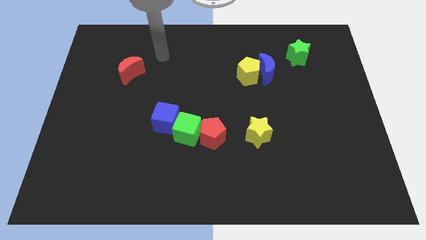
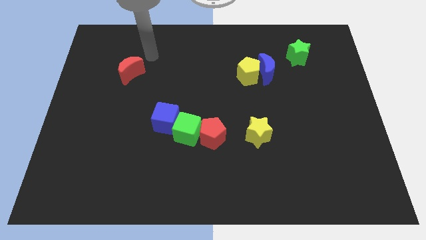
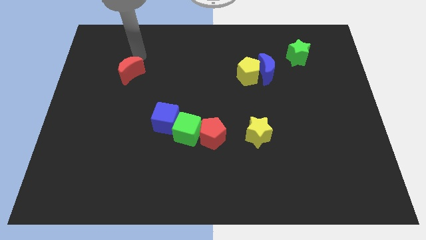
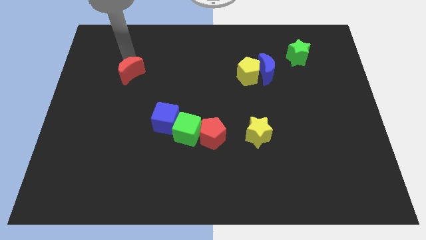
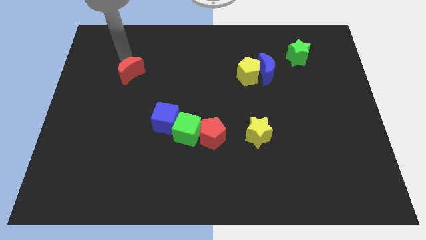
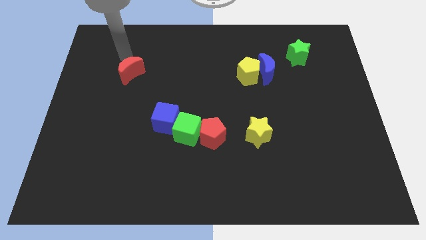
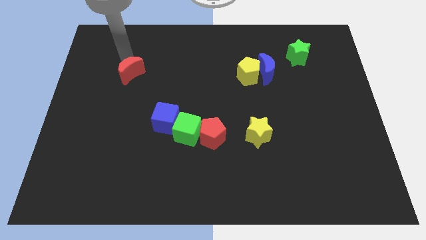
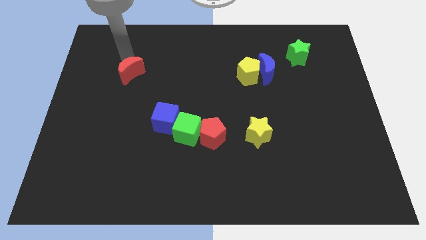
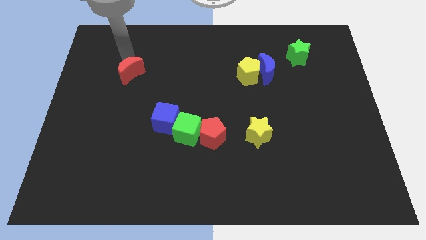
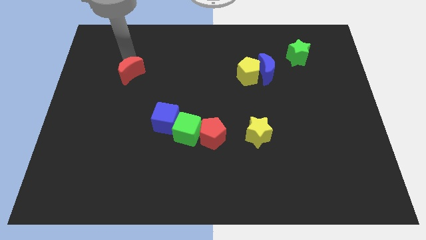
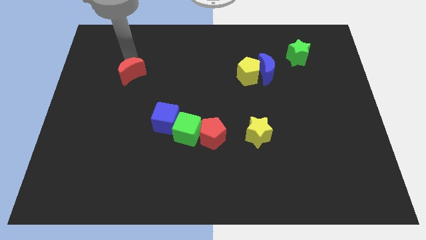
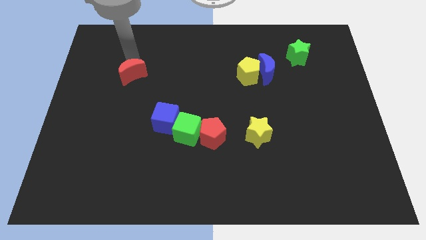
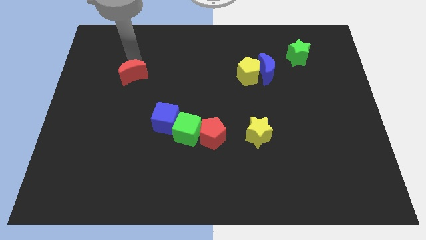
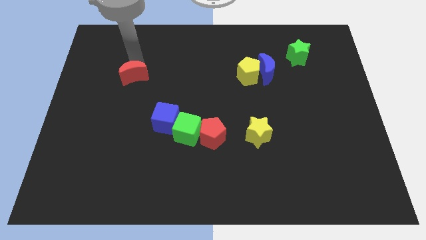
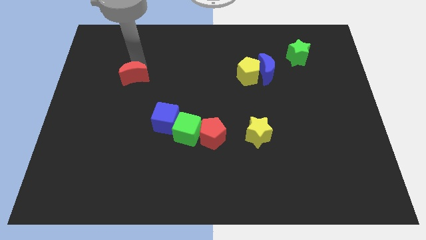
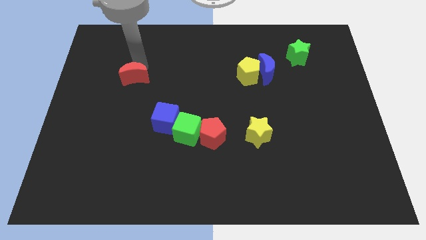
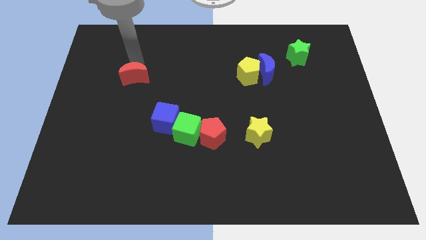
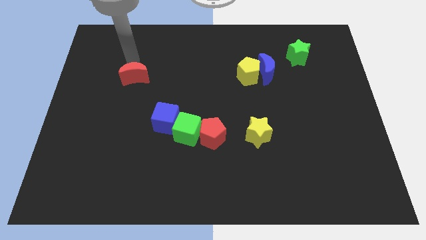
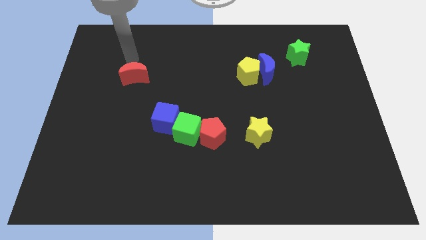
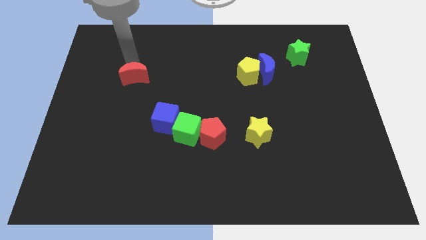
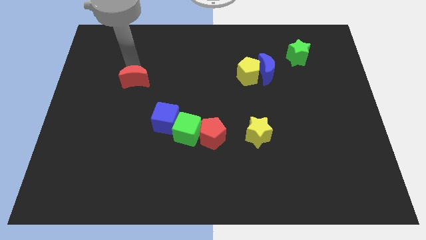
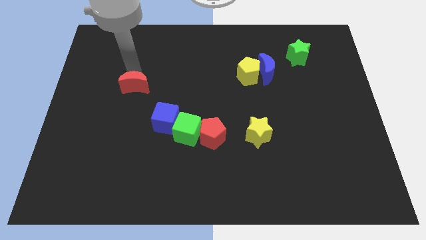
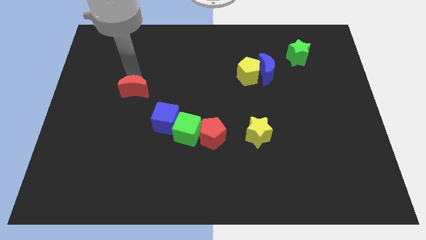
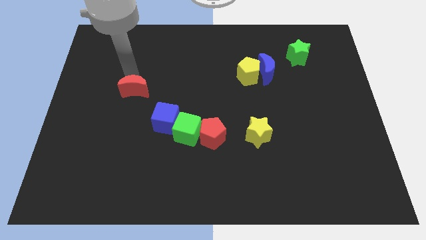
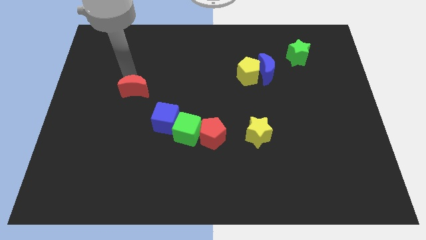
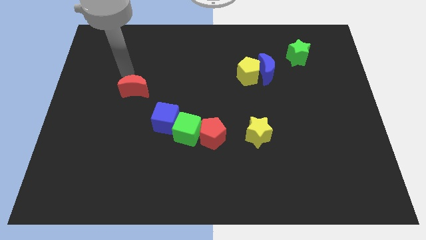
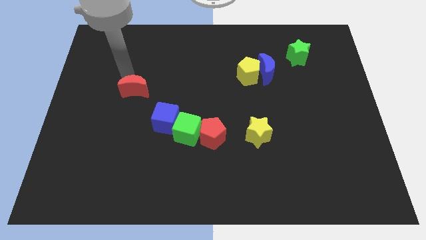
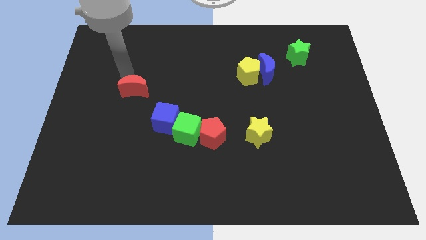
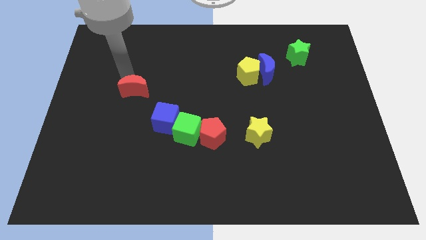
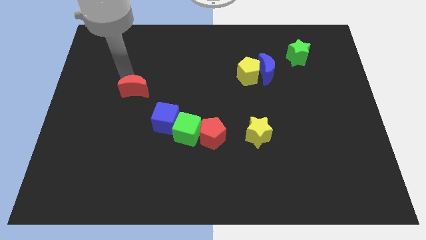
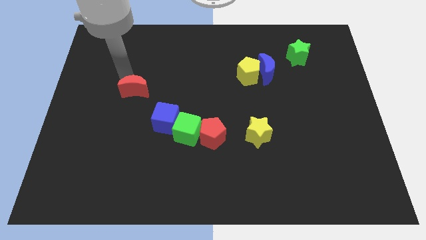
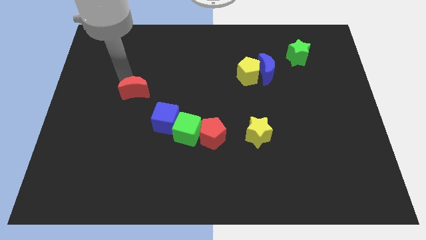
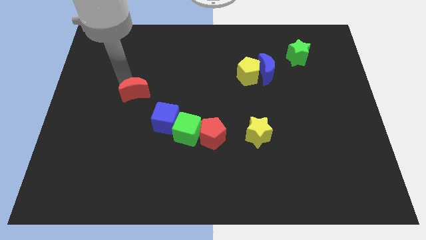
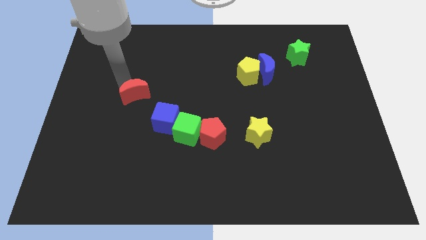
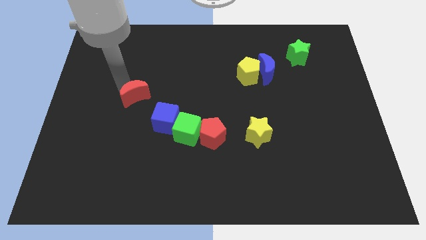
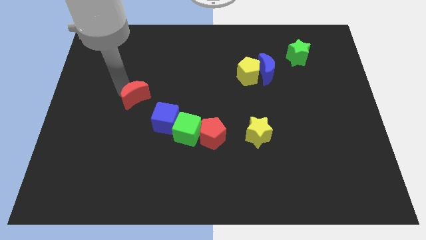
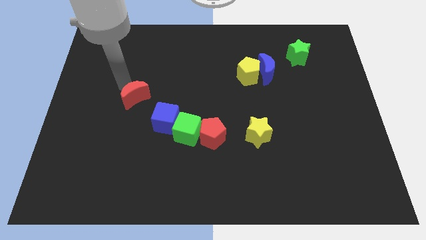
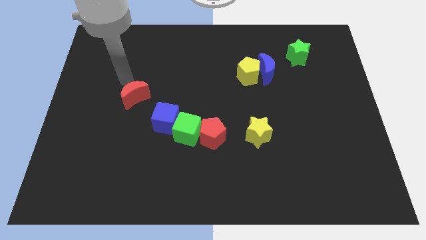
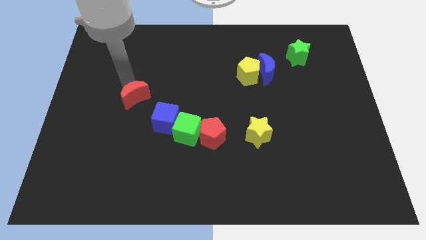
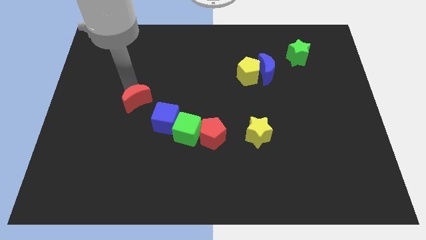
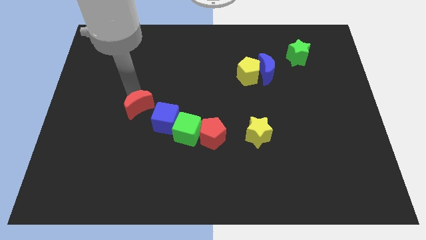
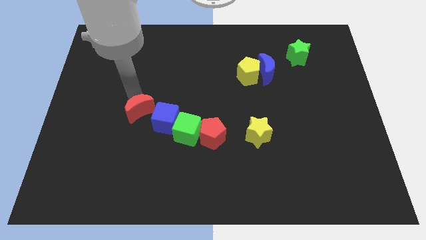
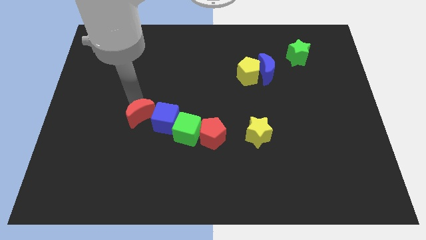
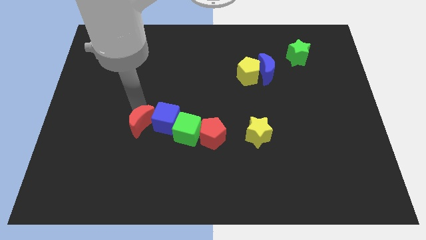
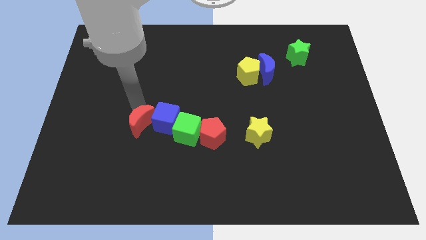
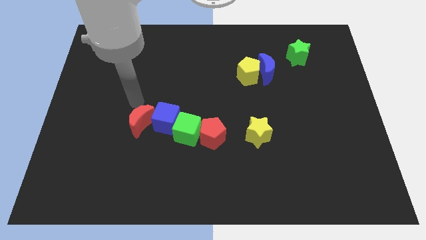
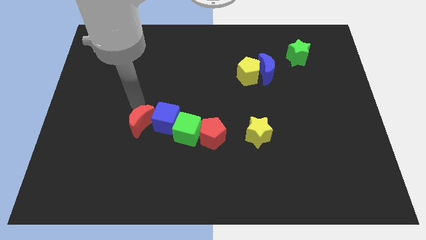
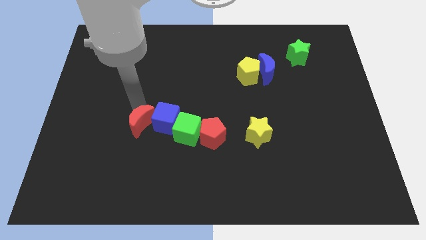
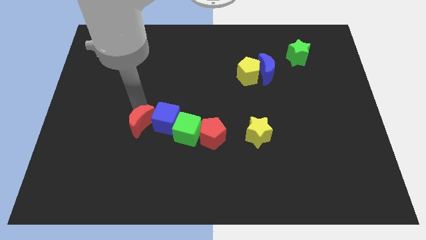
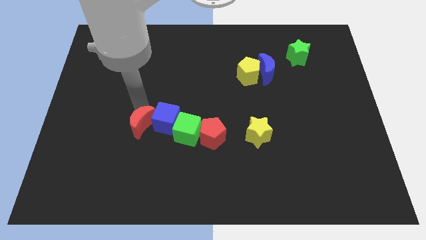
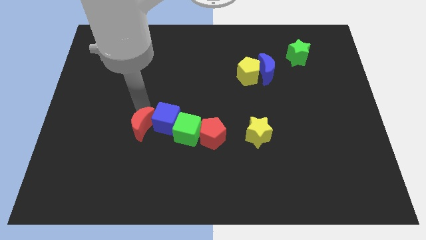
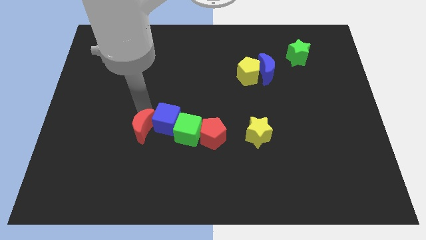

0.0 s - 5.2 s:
put the red moon to the left of the red pentagon

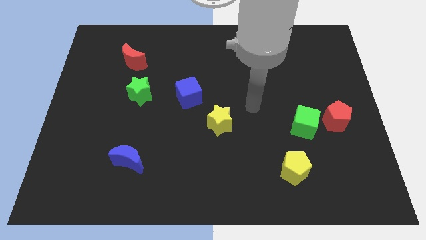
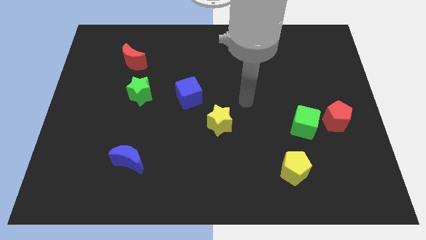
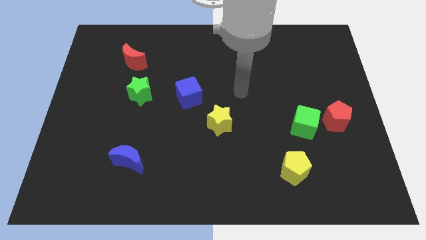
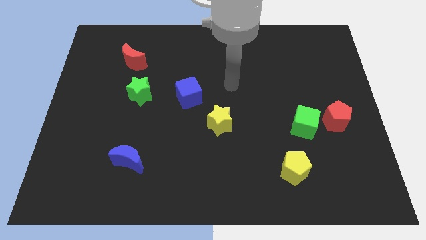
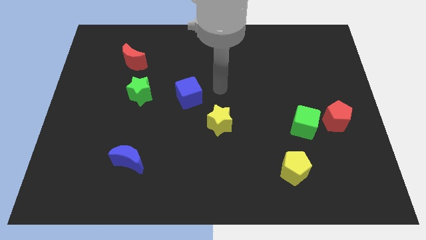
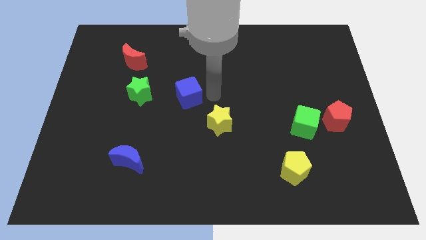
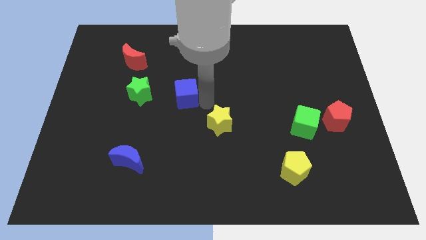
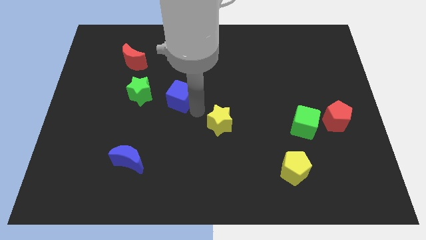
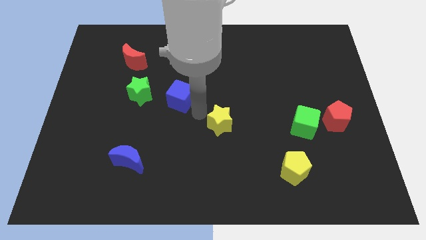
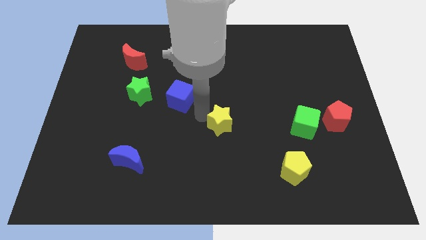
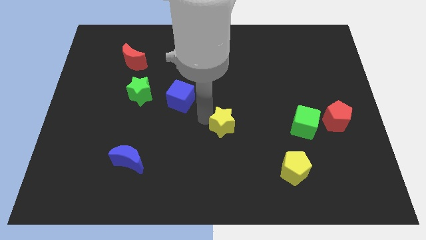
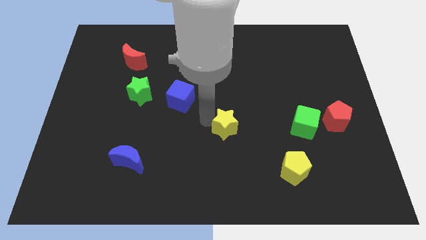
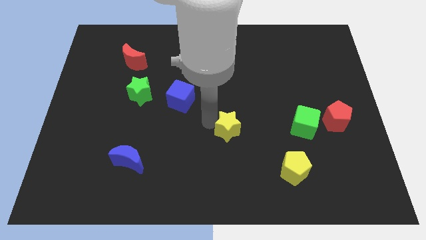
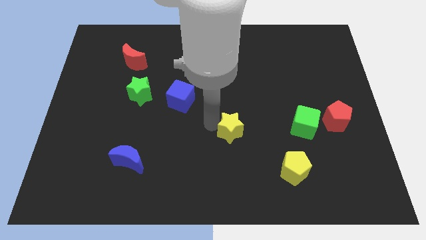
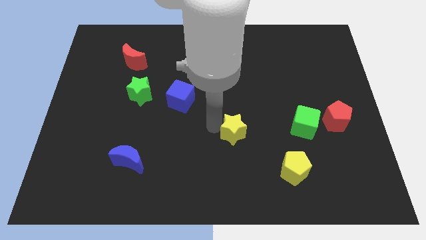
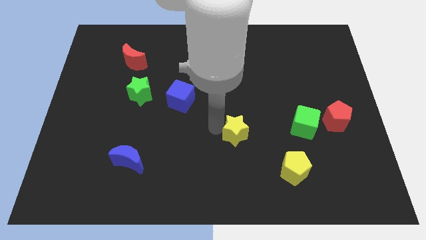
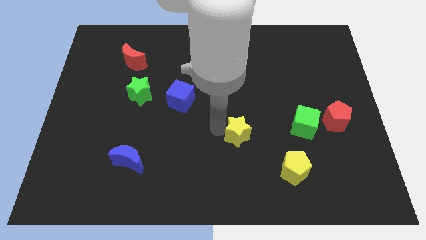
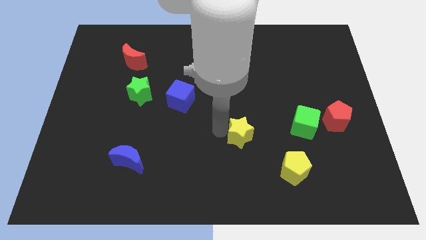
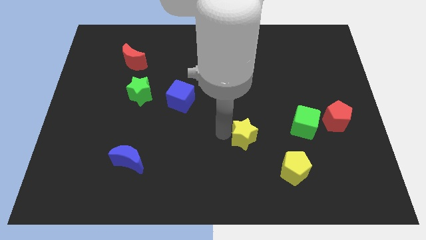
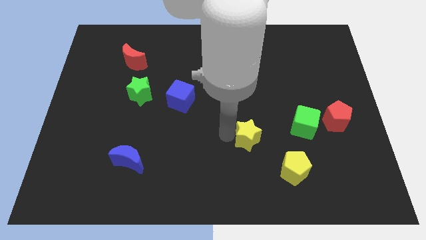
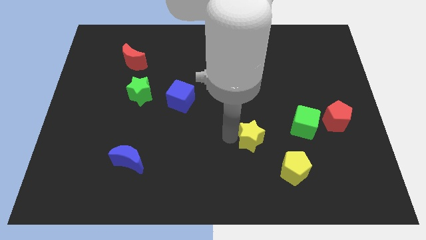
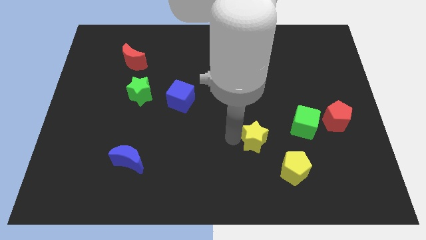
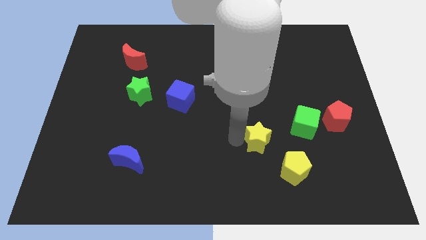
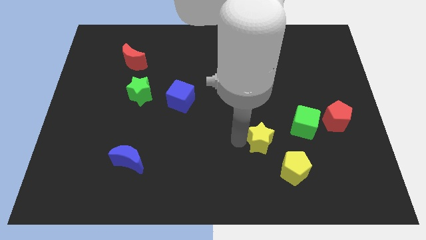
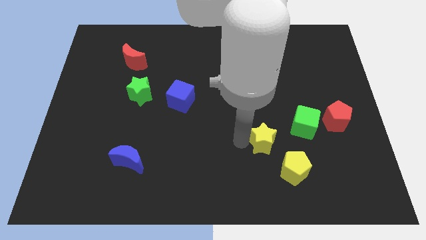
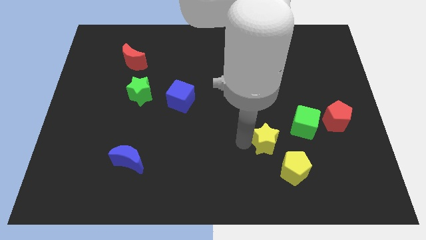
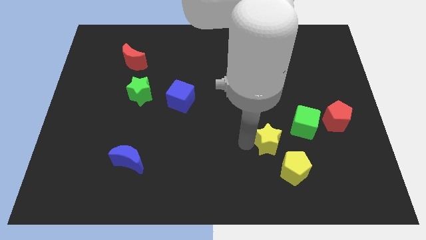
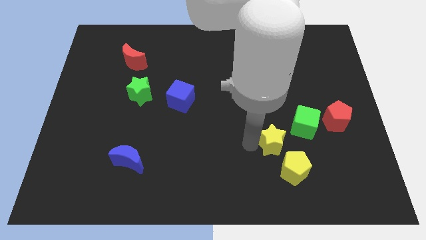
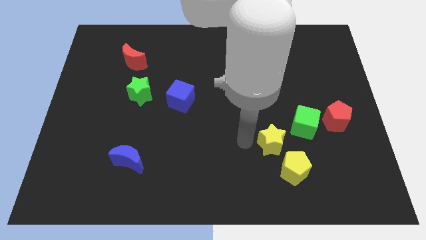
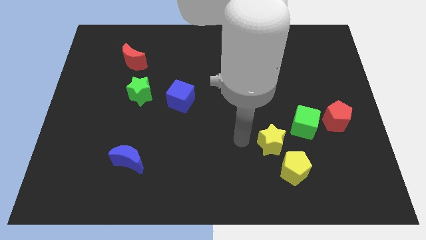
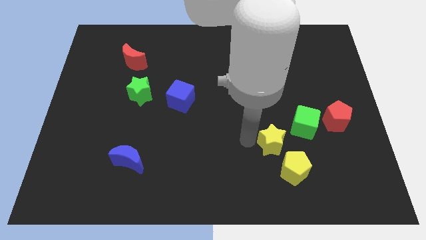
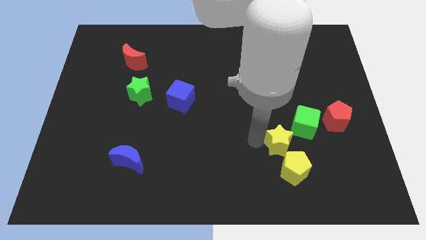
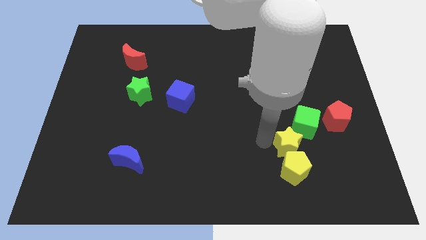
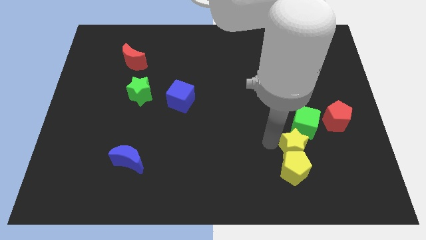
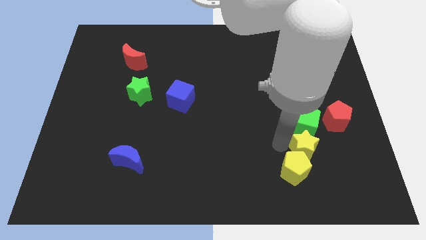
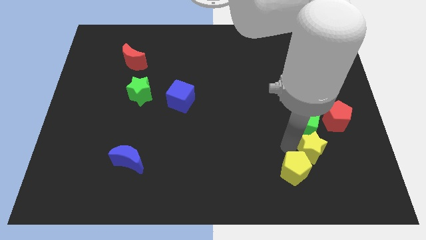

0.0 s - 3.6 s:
move the yellow star diagonally down and to the right of the green cube
